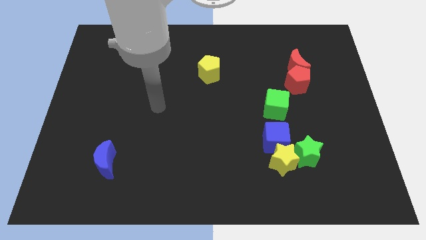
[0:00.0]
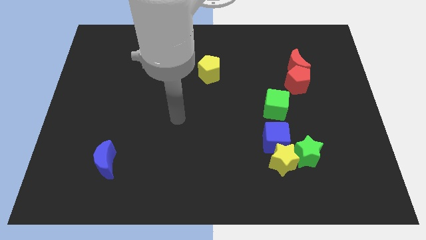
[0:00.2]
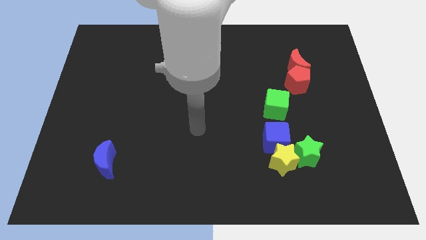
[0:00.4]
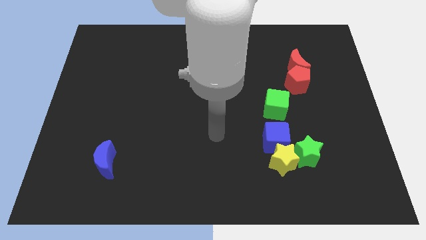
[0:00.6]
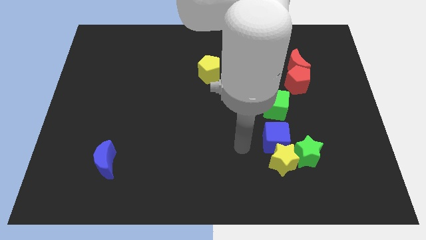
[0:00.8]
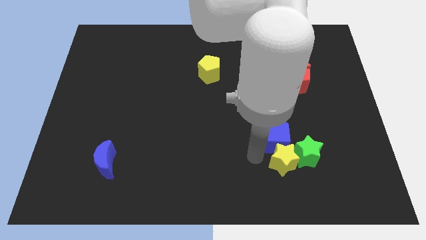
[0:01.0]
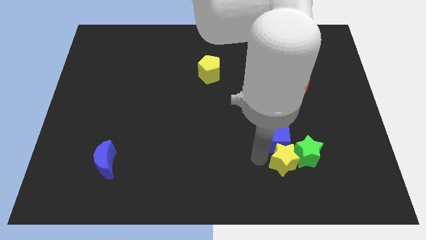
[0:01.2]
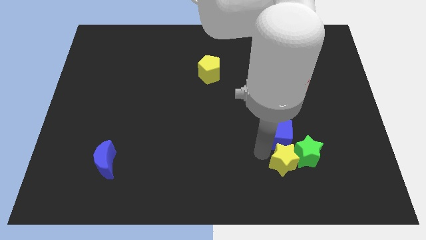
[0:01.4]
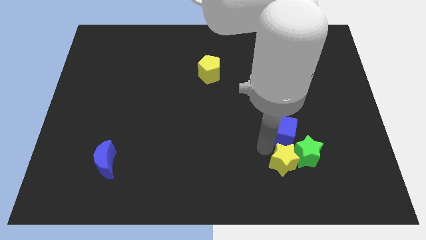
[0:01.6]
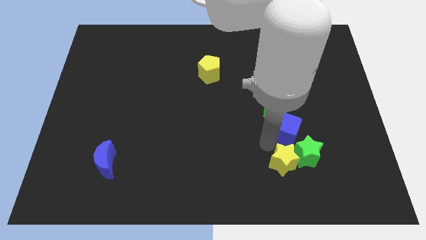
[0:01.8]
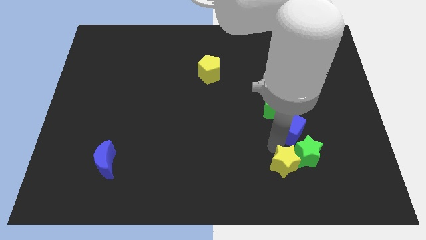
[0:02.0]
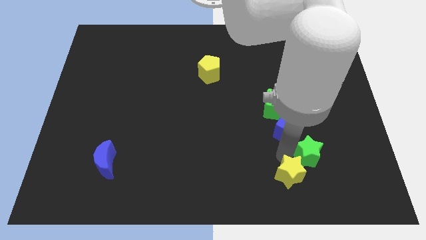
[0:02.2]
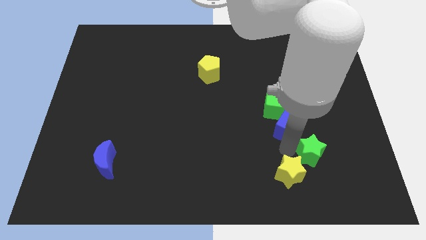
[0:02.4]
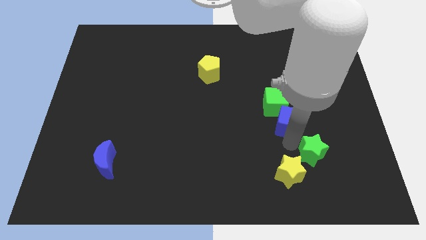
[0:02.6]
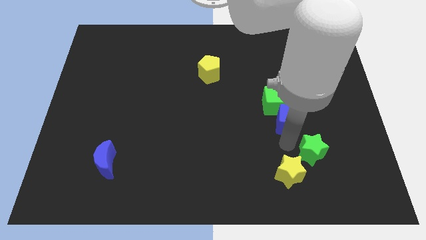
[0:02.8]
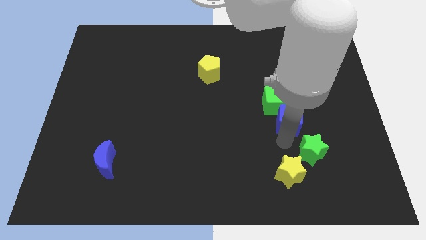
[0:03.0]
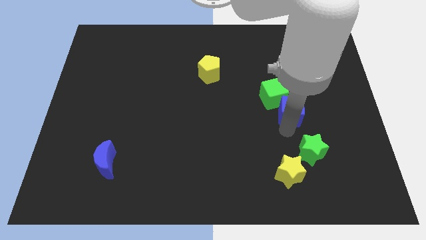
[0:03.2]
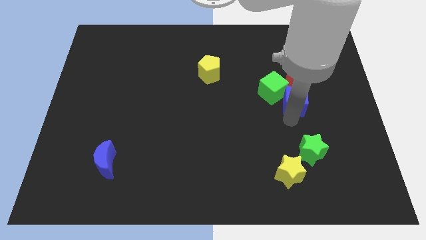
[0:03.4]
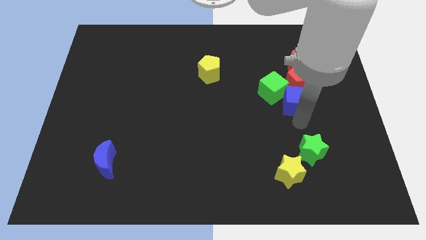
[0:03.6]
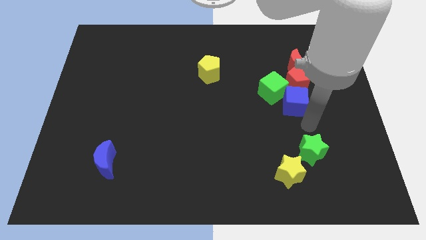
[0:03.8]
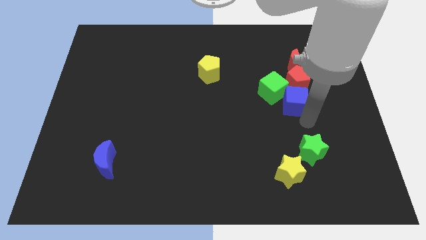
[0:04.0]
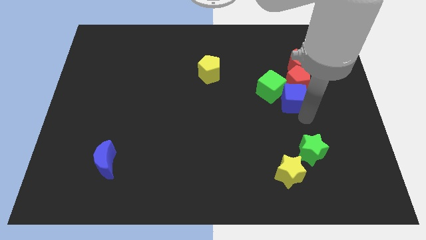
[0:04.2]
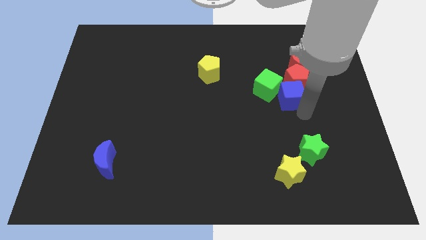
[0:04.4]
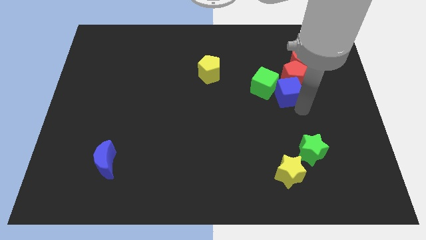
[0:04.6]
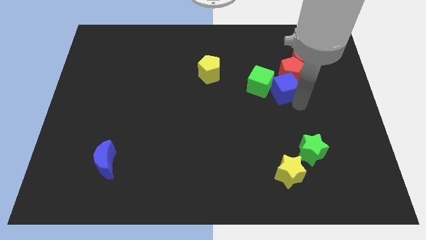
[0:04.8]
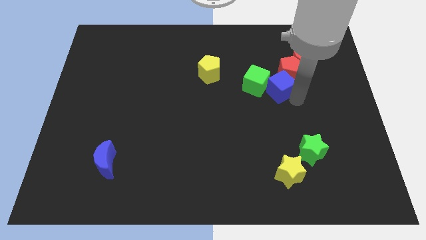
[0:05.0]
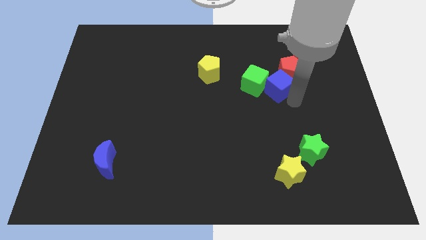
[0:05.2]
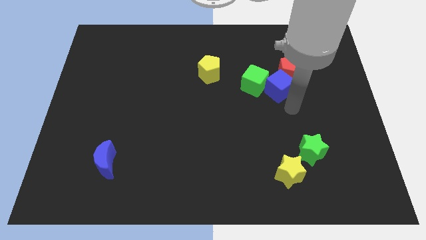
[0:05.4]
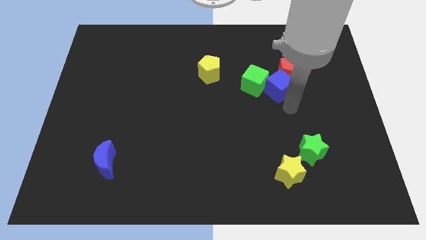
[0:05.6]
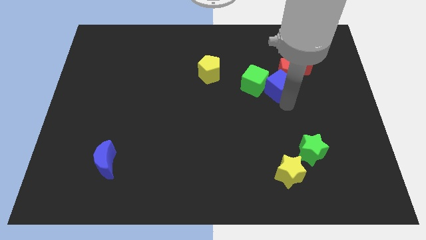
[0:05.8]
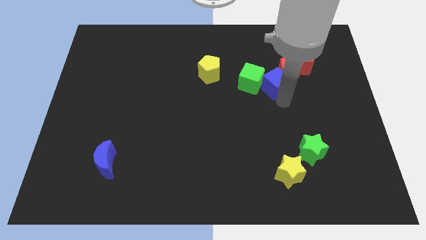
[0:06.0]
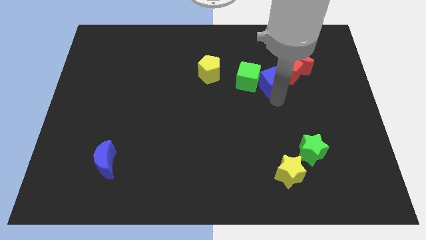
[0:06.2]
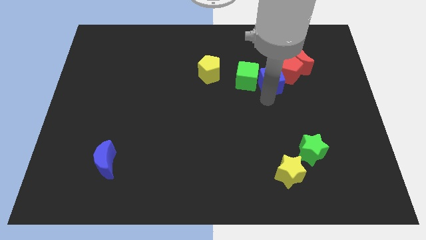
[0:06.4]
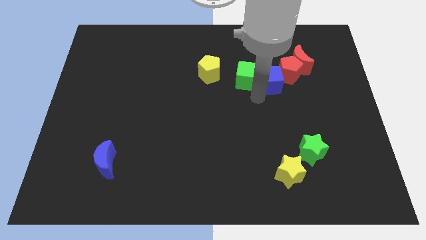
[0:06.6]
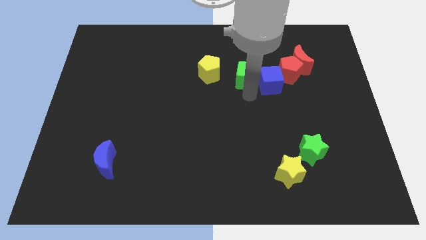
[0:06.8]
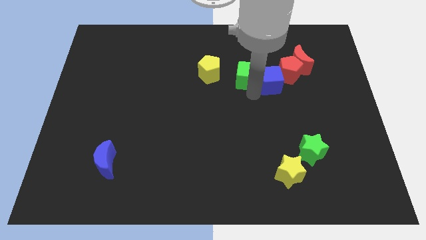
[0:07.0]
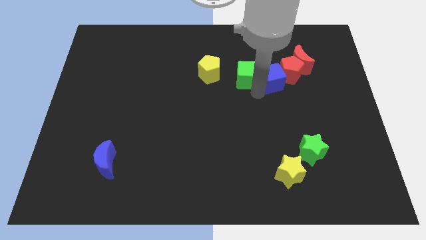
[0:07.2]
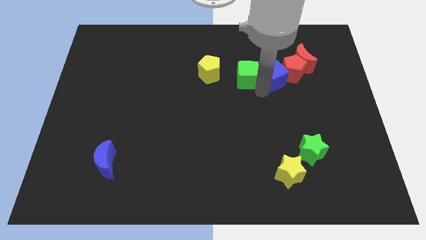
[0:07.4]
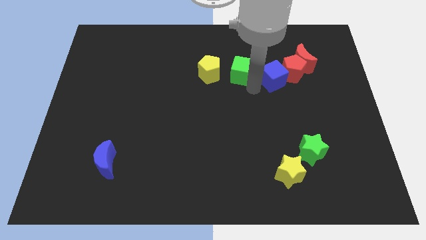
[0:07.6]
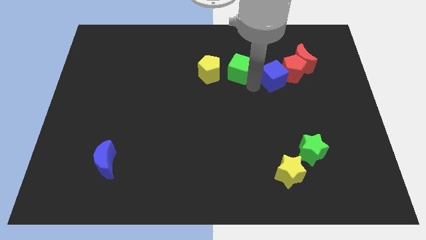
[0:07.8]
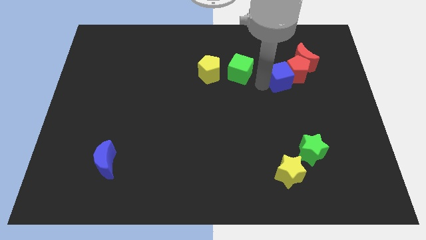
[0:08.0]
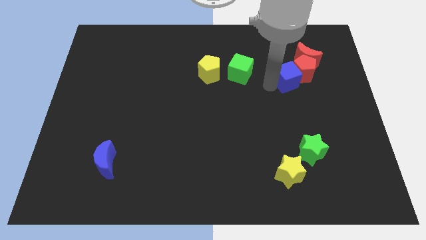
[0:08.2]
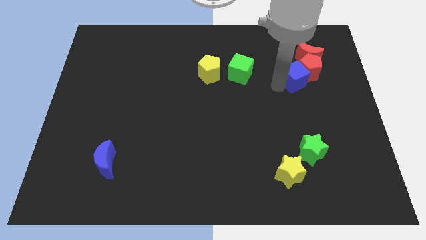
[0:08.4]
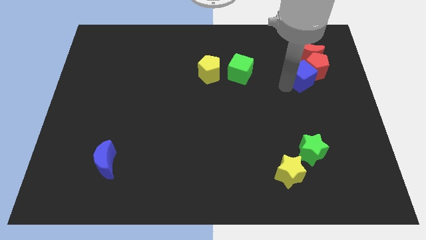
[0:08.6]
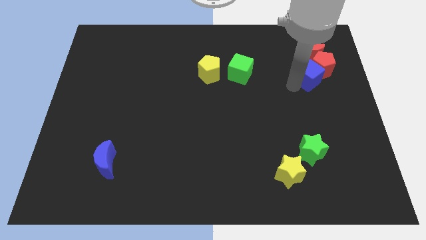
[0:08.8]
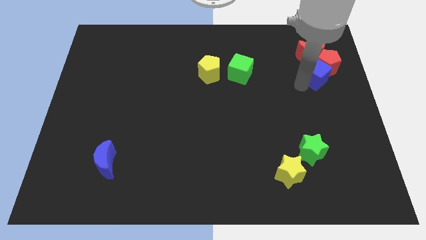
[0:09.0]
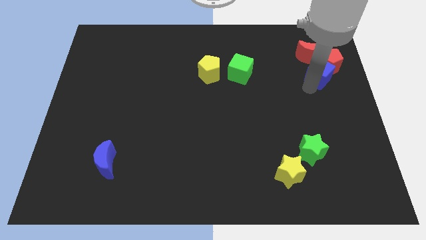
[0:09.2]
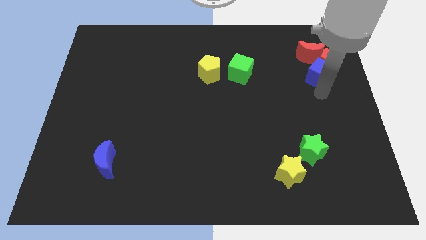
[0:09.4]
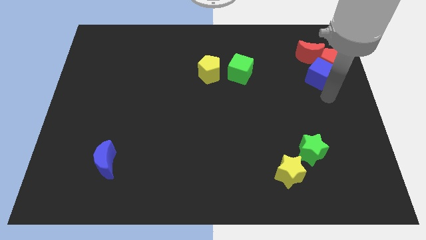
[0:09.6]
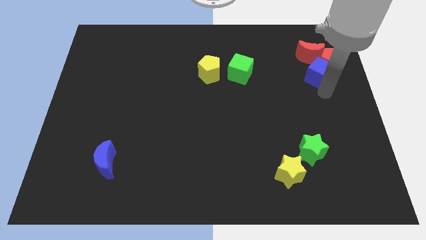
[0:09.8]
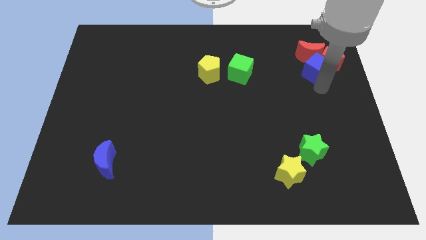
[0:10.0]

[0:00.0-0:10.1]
push the blue cube close to the red moon

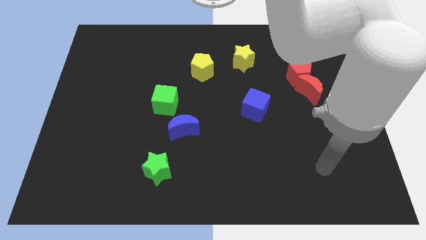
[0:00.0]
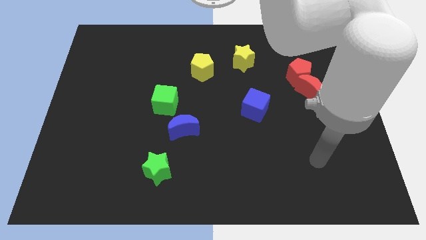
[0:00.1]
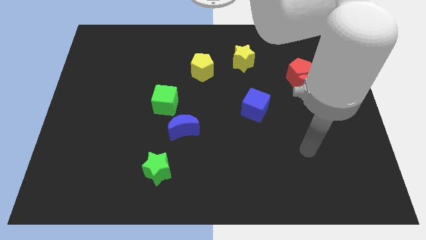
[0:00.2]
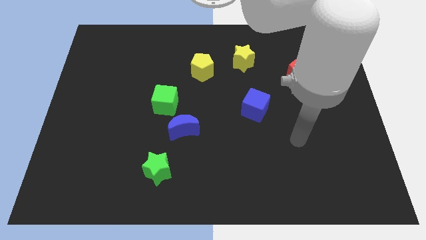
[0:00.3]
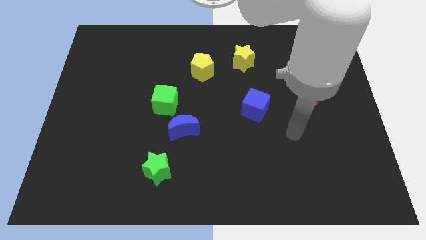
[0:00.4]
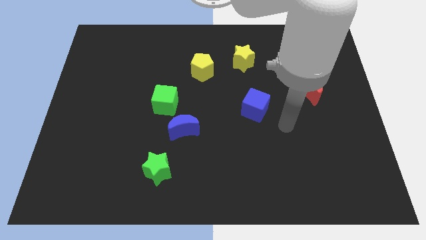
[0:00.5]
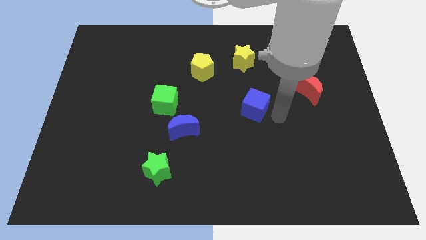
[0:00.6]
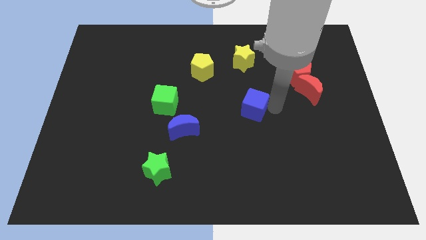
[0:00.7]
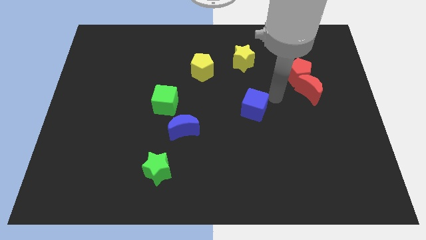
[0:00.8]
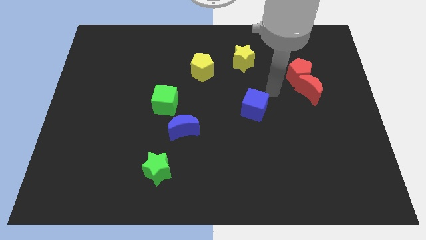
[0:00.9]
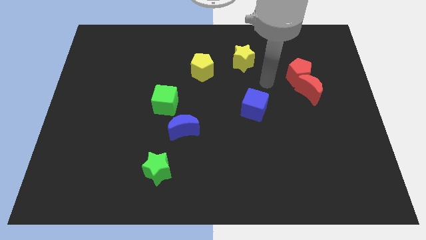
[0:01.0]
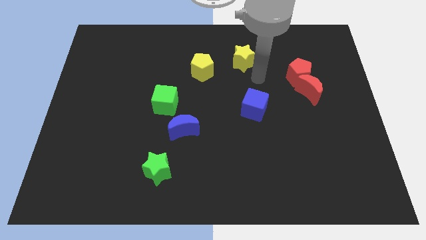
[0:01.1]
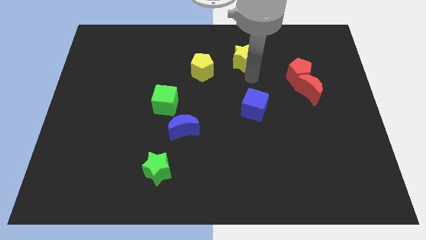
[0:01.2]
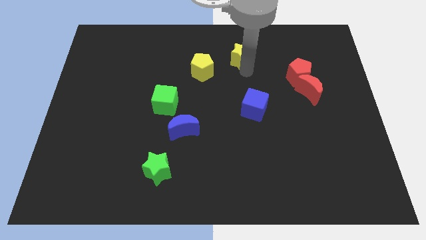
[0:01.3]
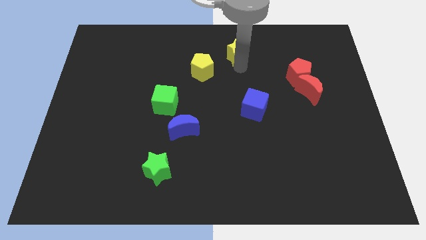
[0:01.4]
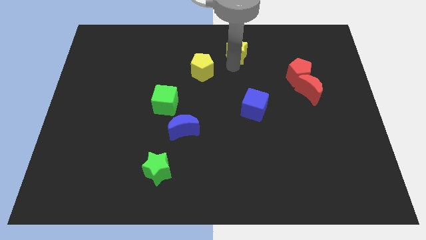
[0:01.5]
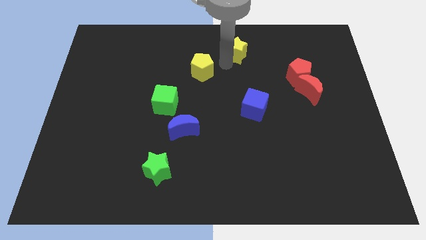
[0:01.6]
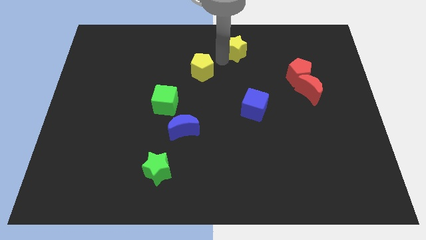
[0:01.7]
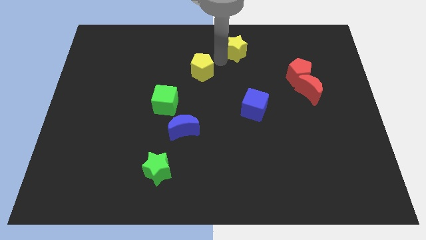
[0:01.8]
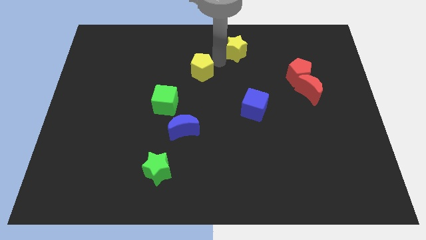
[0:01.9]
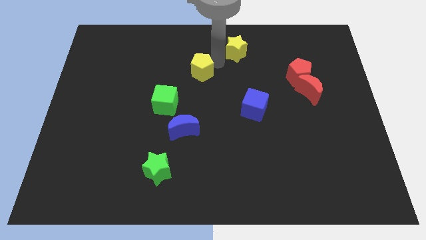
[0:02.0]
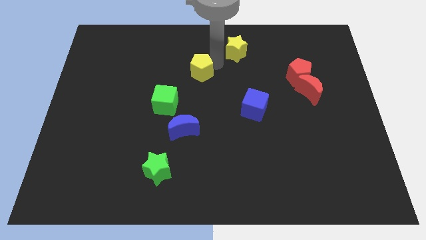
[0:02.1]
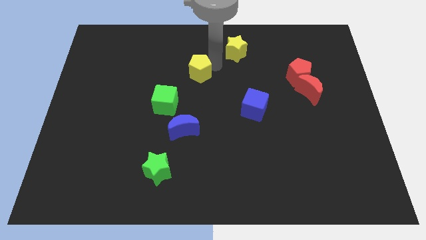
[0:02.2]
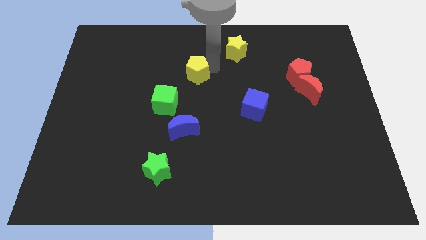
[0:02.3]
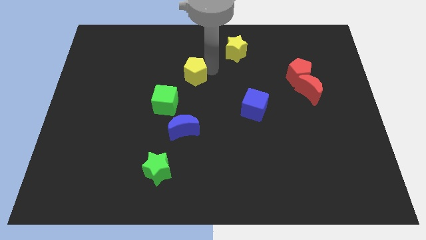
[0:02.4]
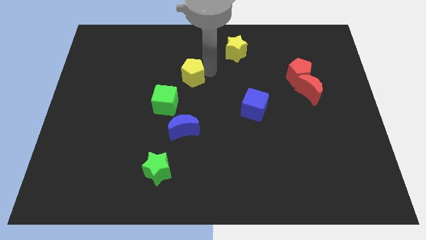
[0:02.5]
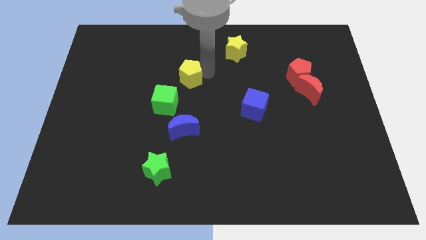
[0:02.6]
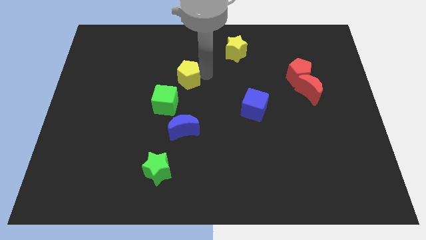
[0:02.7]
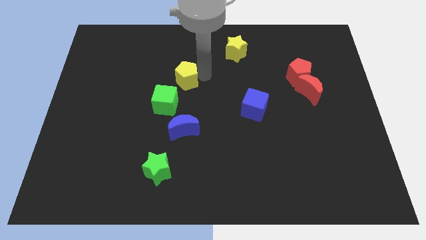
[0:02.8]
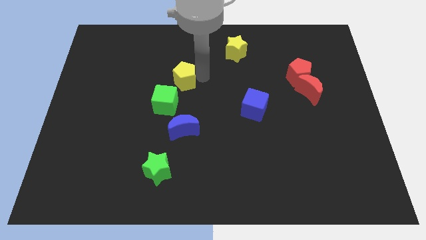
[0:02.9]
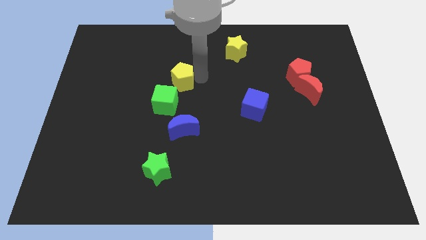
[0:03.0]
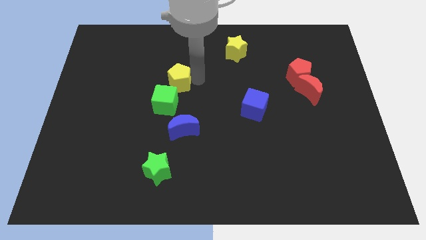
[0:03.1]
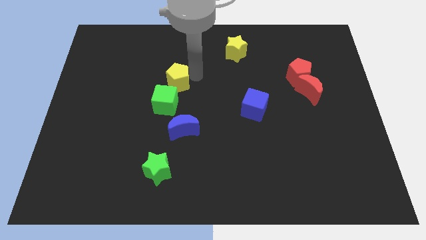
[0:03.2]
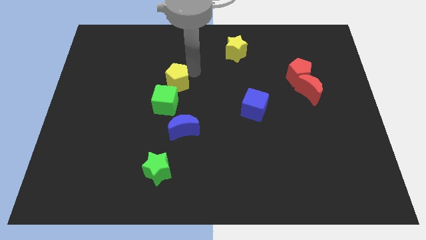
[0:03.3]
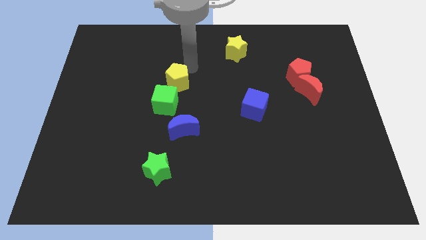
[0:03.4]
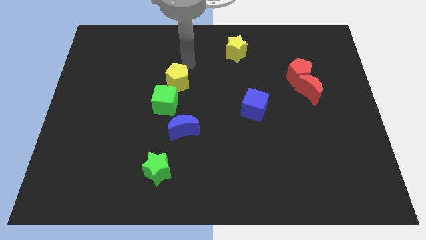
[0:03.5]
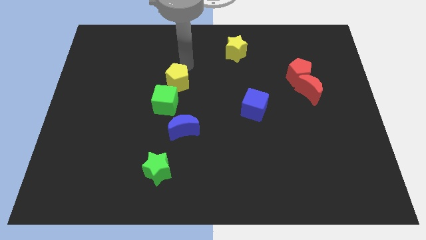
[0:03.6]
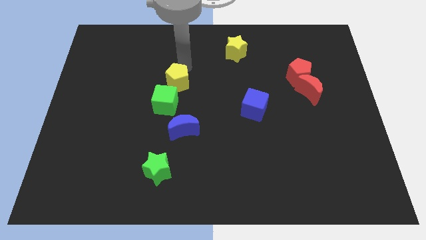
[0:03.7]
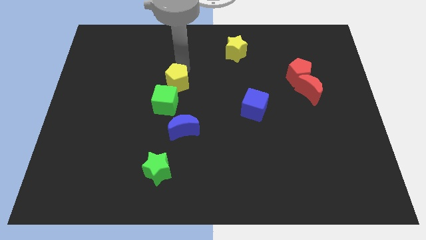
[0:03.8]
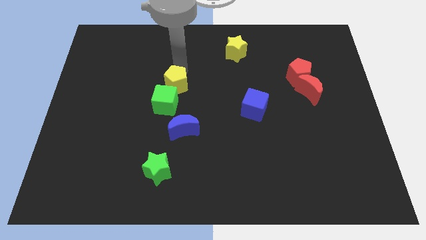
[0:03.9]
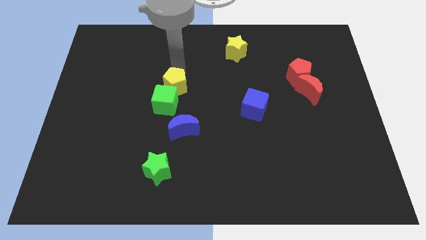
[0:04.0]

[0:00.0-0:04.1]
move the yellow pentagon to the green cube
